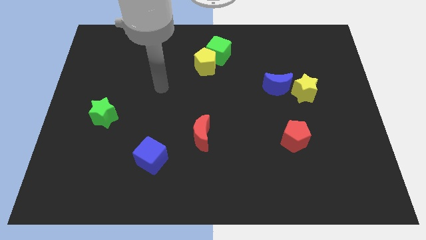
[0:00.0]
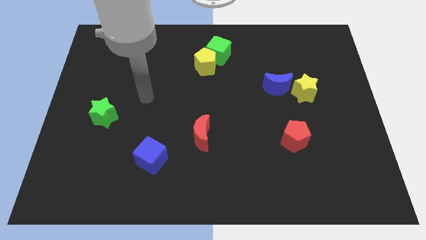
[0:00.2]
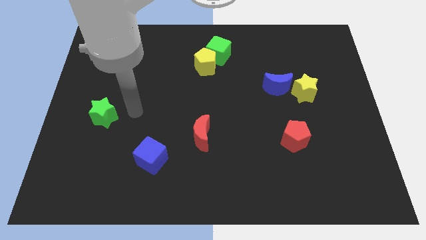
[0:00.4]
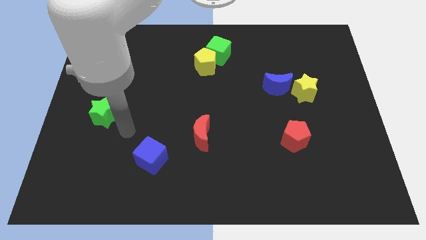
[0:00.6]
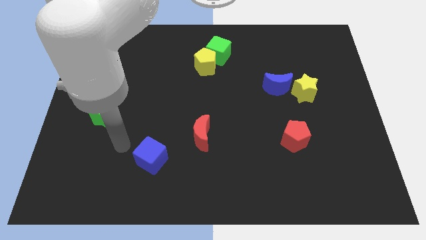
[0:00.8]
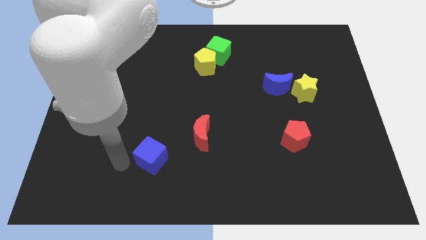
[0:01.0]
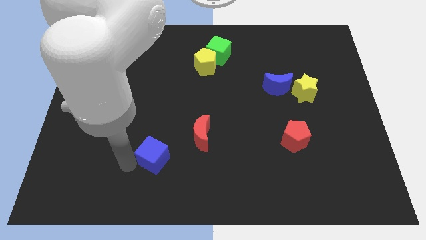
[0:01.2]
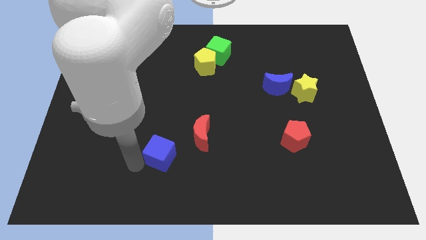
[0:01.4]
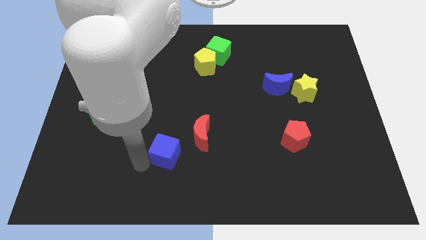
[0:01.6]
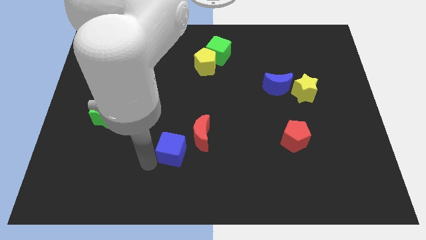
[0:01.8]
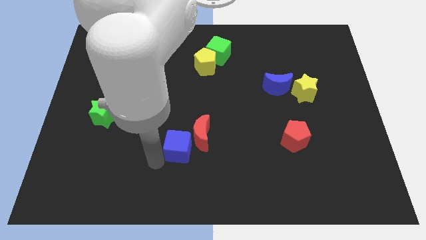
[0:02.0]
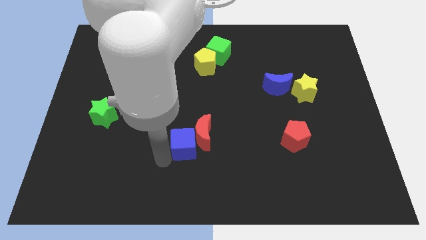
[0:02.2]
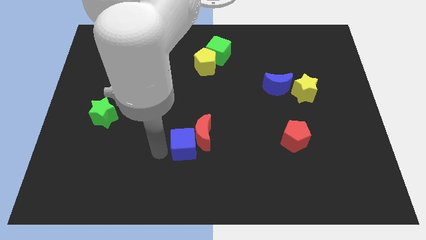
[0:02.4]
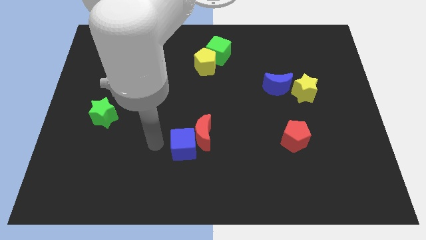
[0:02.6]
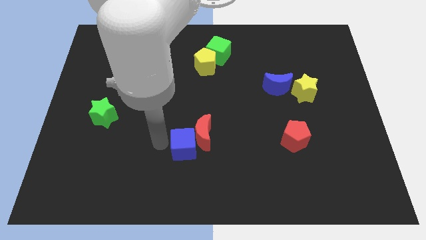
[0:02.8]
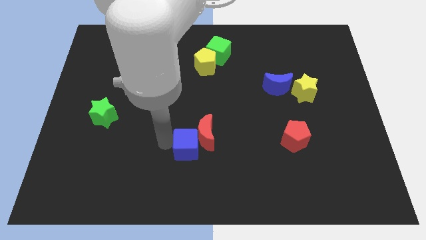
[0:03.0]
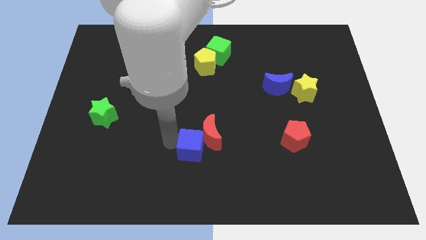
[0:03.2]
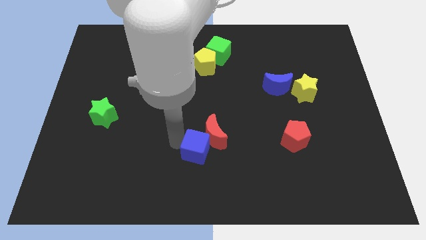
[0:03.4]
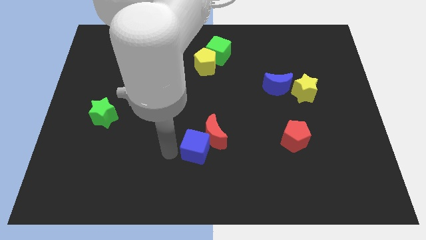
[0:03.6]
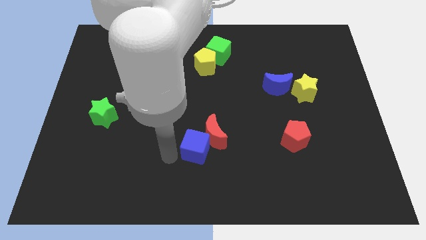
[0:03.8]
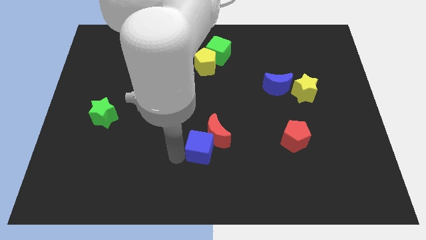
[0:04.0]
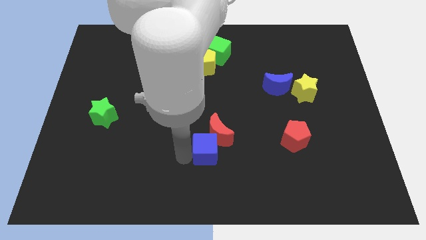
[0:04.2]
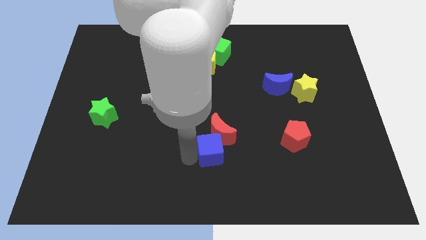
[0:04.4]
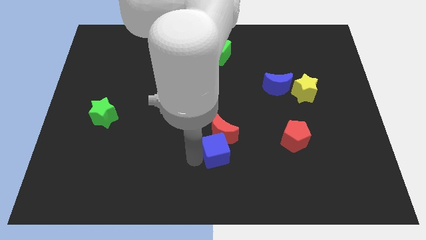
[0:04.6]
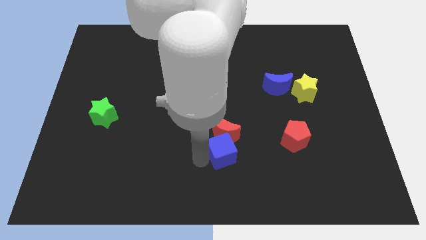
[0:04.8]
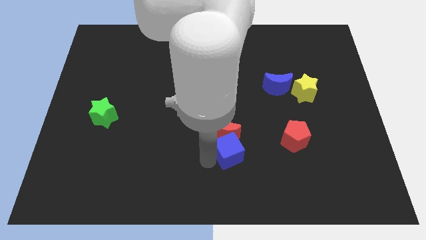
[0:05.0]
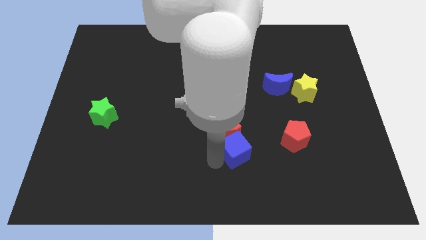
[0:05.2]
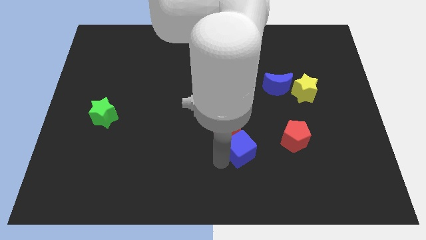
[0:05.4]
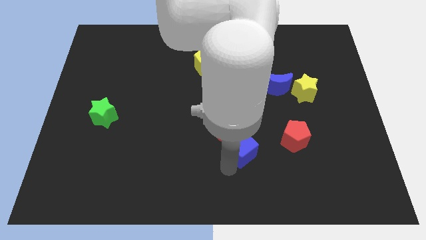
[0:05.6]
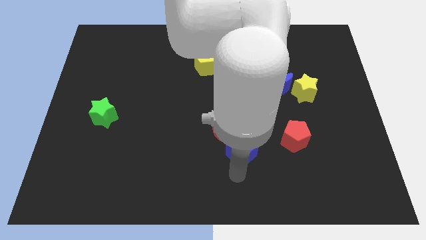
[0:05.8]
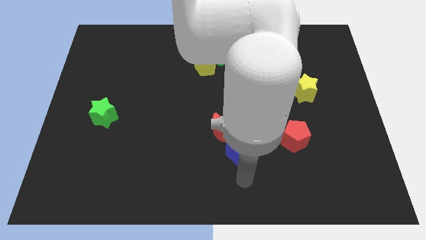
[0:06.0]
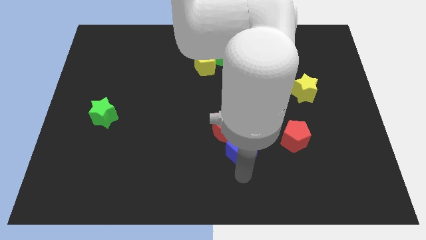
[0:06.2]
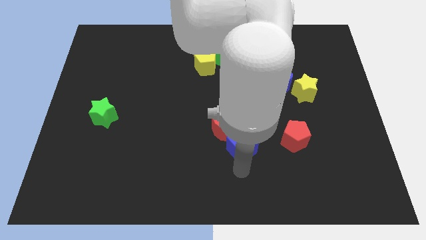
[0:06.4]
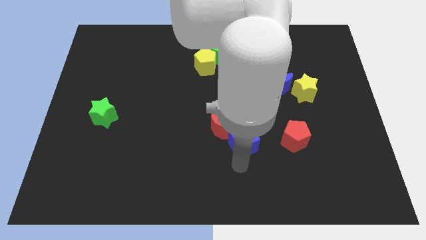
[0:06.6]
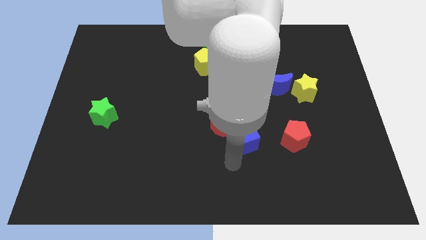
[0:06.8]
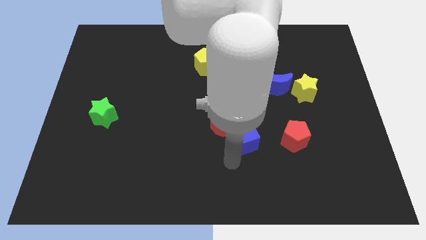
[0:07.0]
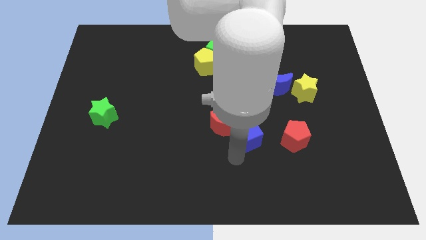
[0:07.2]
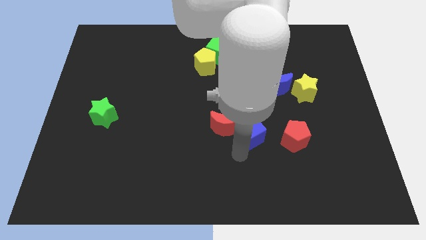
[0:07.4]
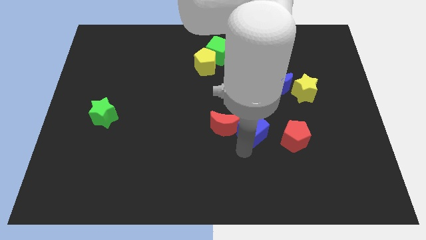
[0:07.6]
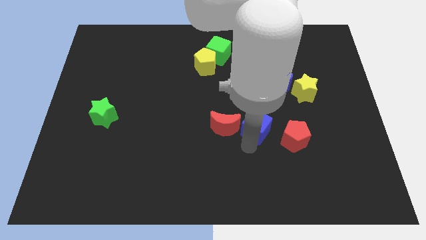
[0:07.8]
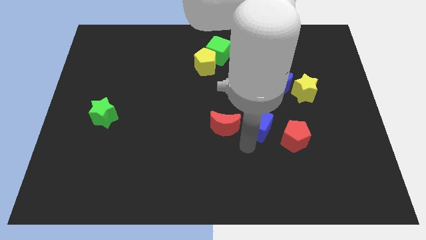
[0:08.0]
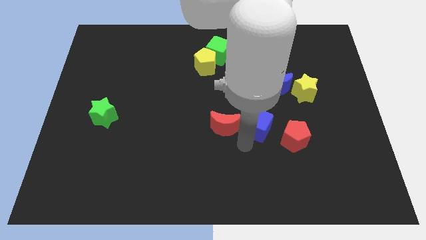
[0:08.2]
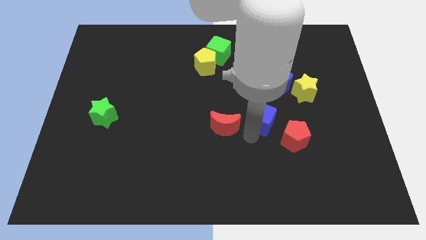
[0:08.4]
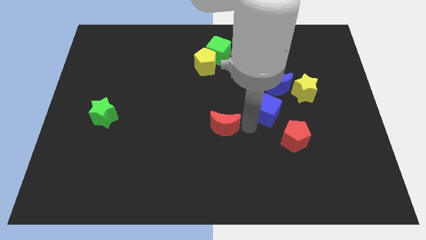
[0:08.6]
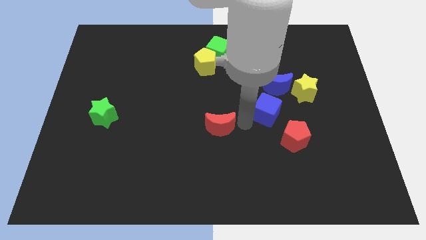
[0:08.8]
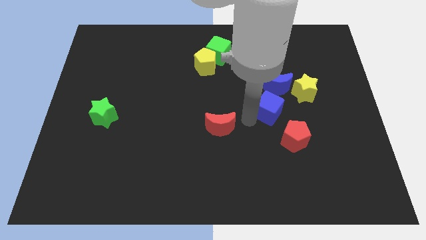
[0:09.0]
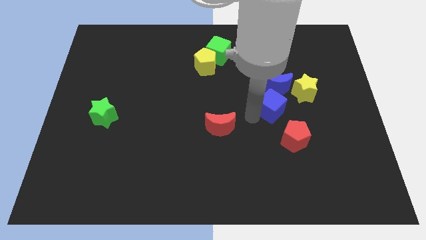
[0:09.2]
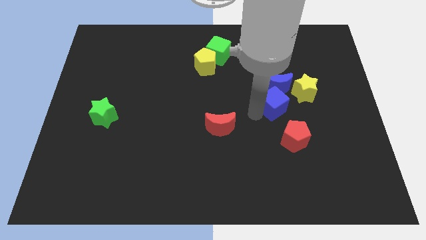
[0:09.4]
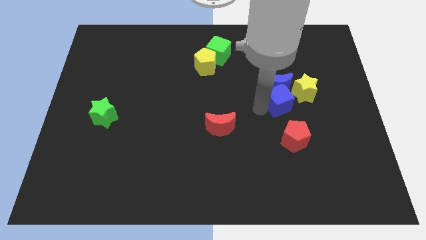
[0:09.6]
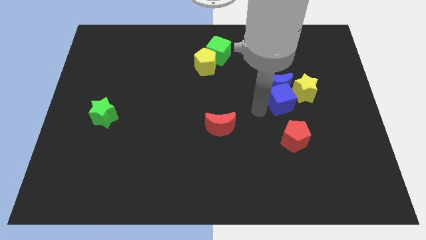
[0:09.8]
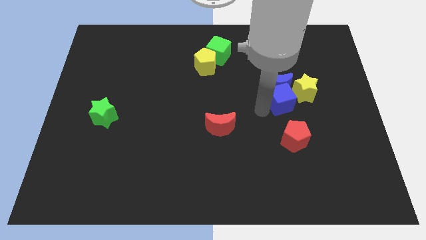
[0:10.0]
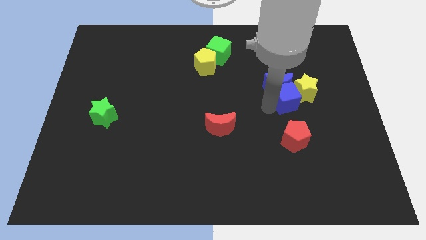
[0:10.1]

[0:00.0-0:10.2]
move the blue cube close to the yellow star
